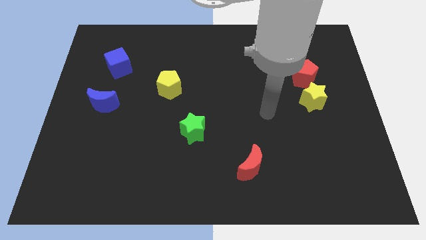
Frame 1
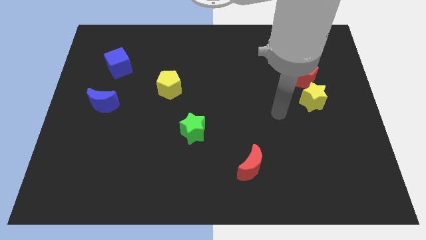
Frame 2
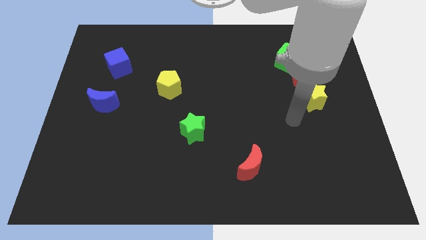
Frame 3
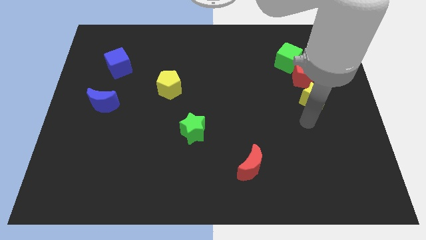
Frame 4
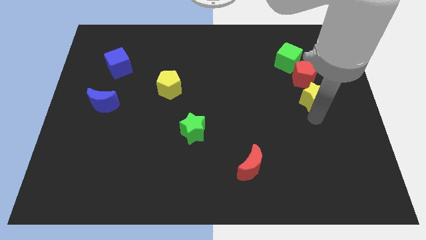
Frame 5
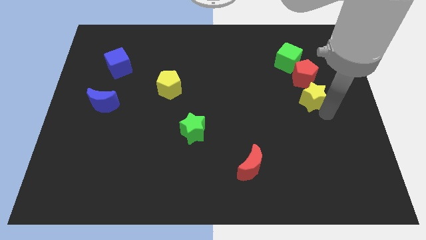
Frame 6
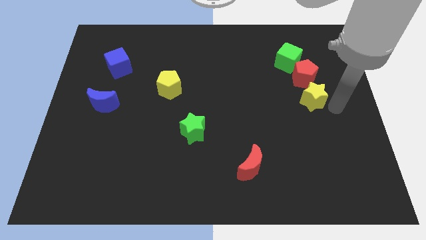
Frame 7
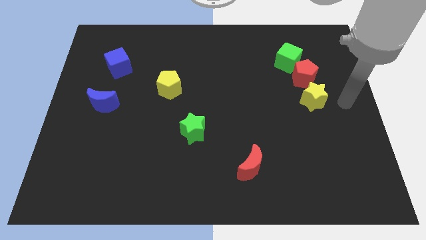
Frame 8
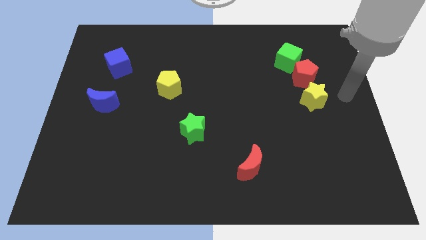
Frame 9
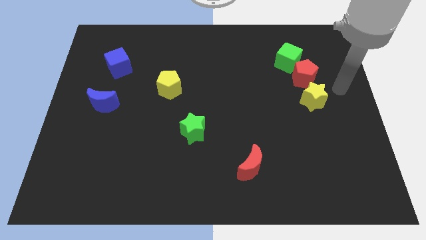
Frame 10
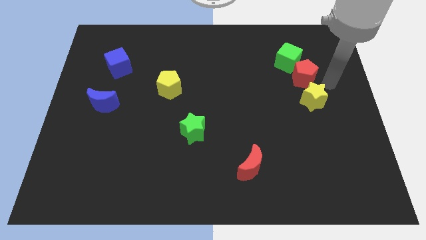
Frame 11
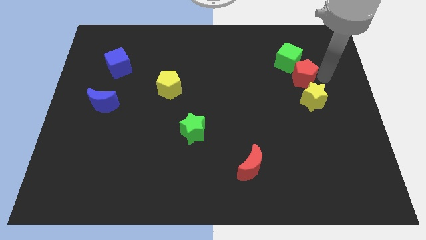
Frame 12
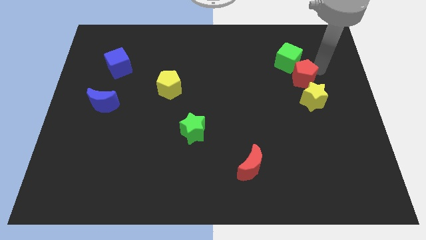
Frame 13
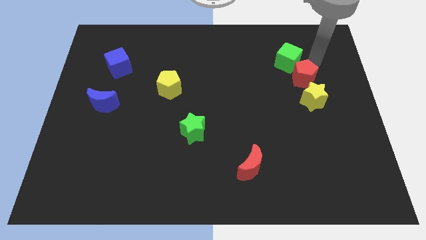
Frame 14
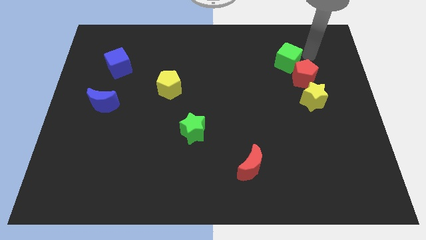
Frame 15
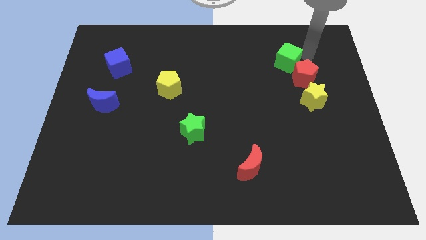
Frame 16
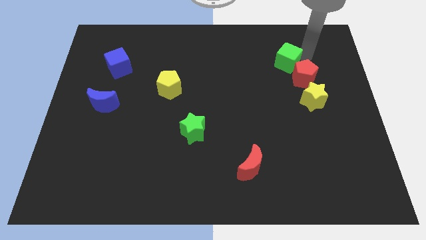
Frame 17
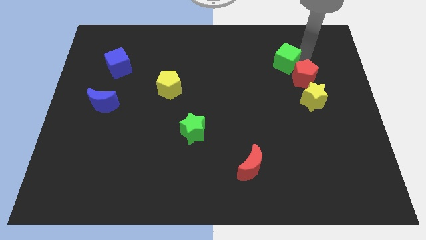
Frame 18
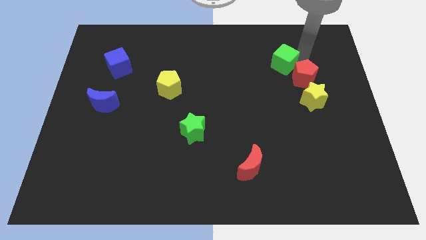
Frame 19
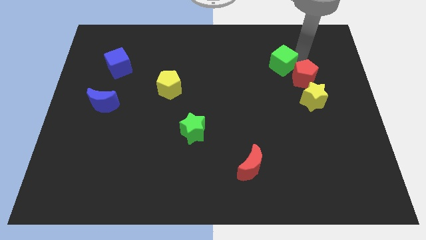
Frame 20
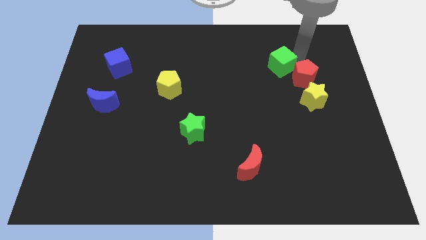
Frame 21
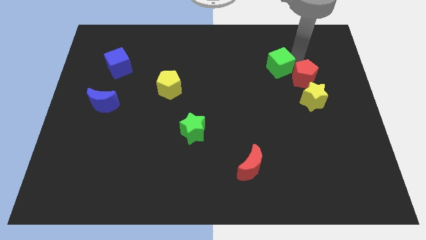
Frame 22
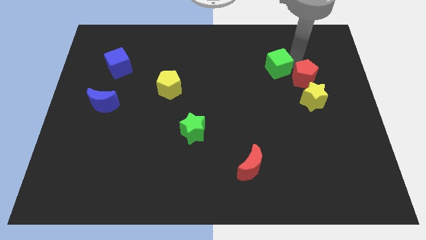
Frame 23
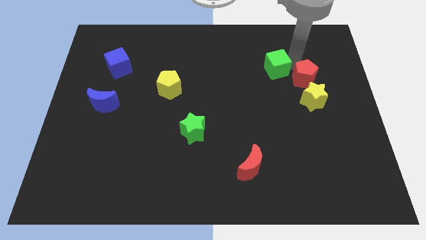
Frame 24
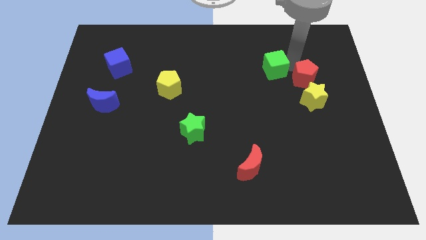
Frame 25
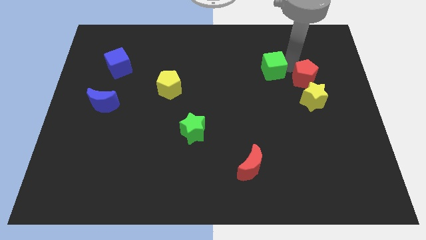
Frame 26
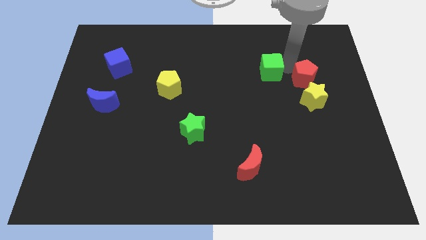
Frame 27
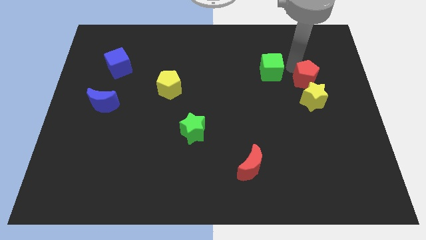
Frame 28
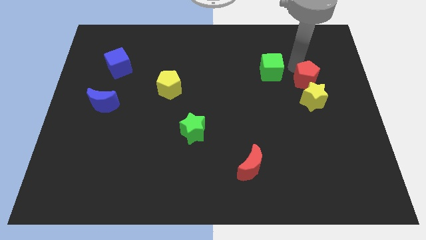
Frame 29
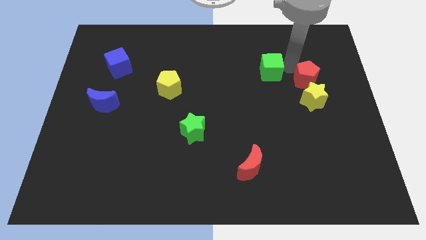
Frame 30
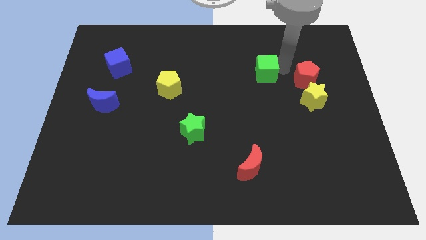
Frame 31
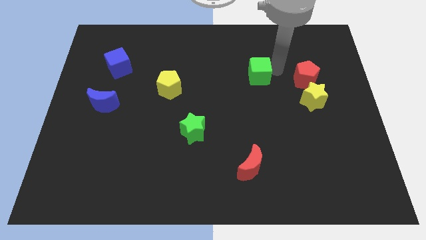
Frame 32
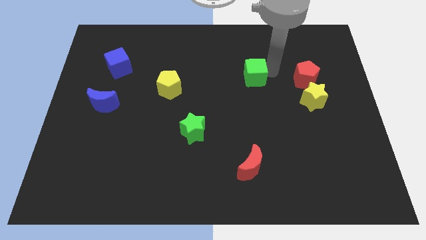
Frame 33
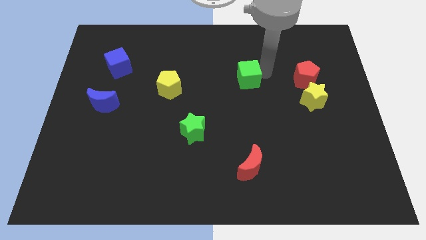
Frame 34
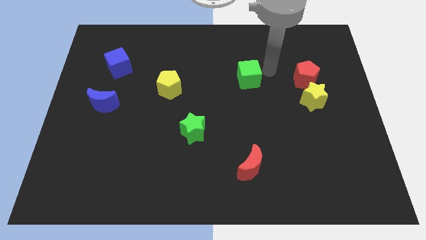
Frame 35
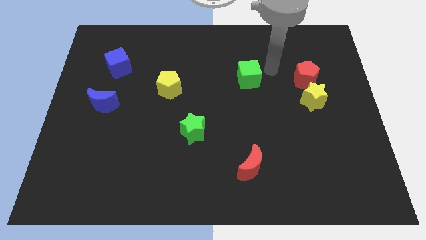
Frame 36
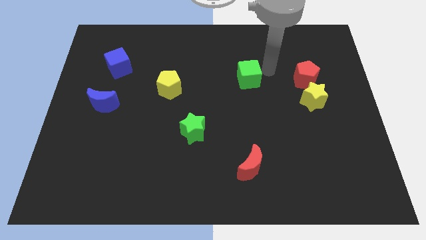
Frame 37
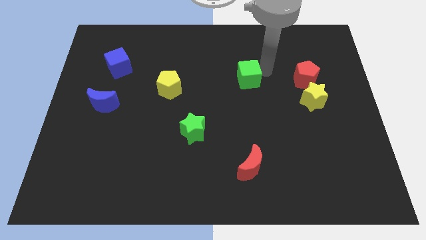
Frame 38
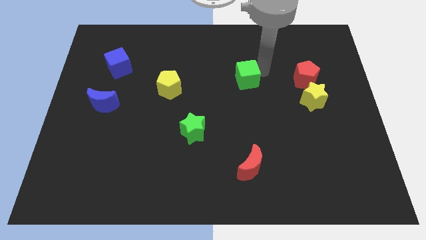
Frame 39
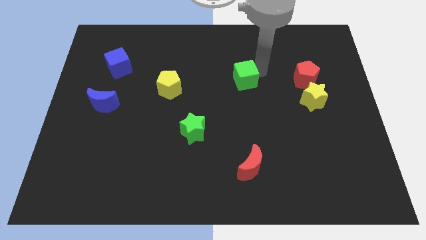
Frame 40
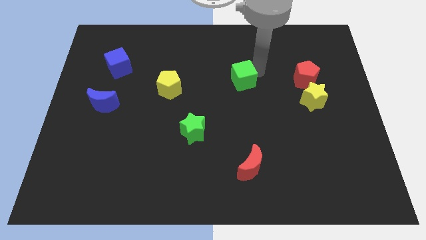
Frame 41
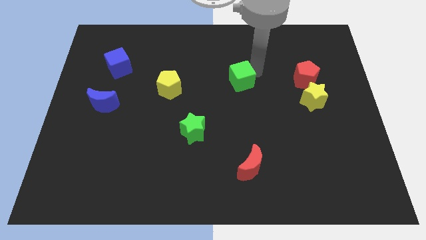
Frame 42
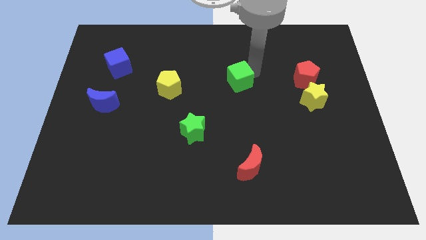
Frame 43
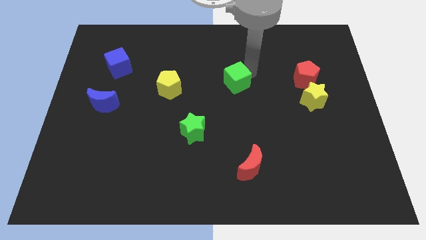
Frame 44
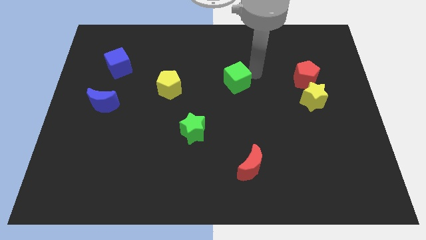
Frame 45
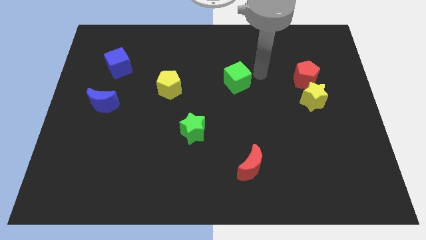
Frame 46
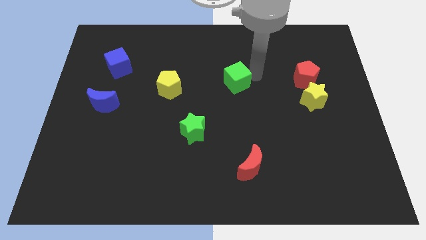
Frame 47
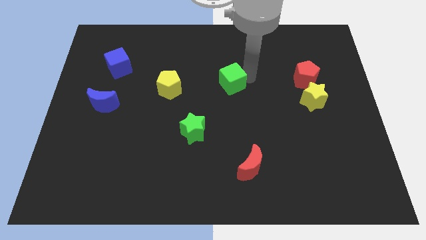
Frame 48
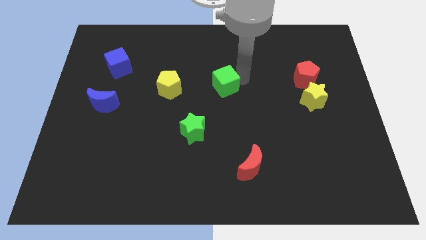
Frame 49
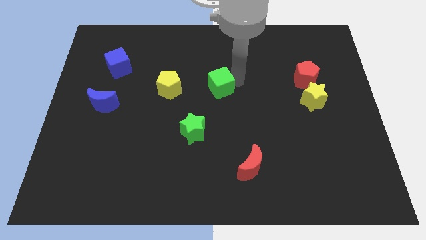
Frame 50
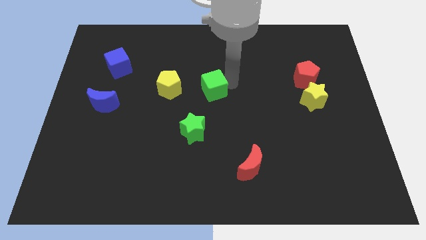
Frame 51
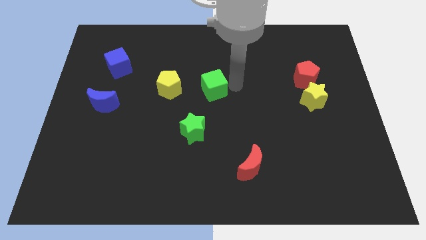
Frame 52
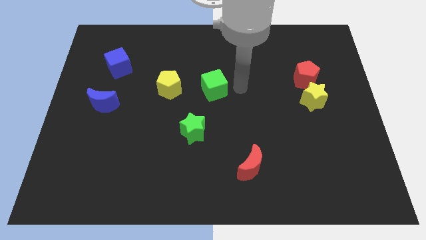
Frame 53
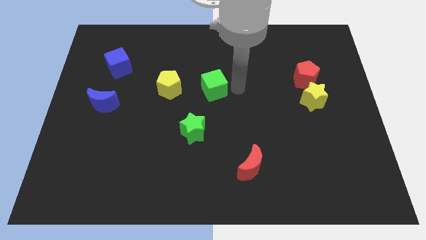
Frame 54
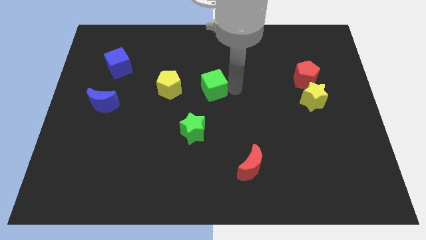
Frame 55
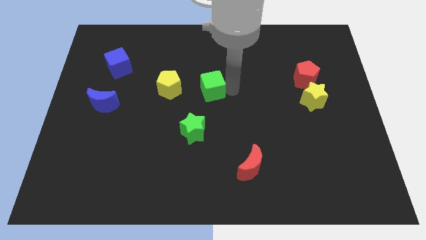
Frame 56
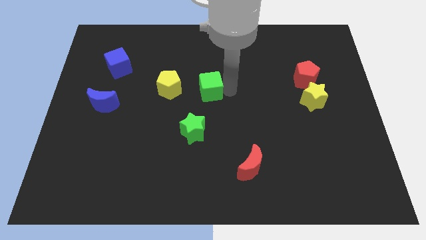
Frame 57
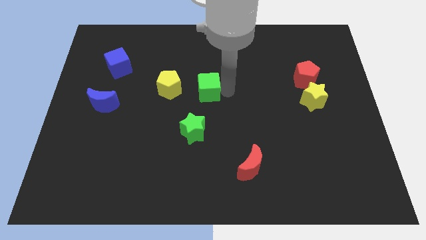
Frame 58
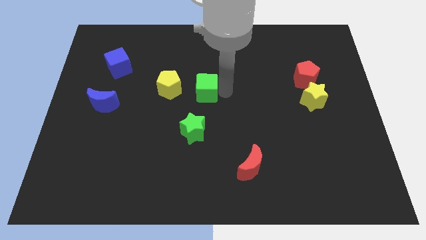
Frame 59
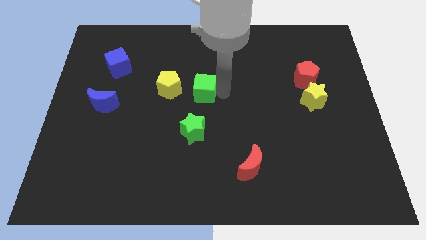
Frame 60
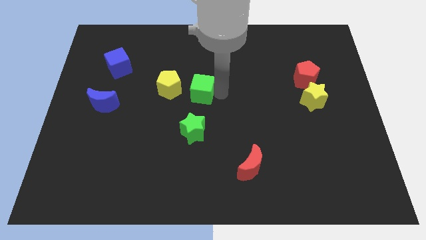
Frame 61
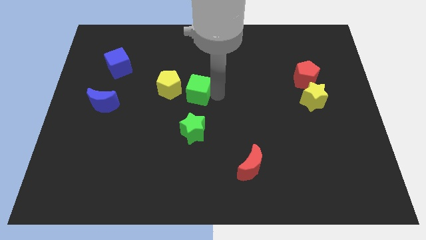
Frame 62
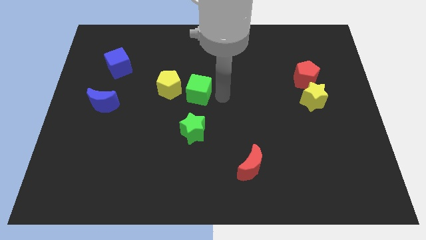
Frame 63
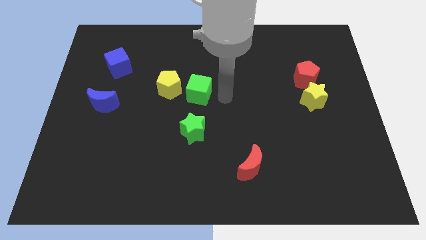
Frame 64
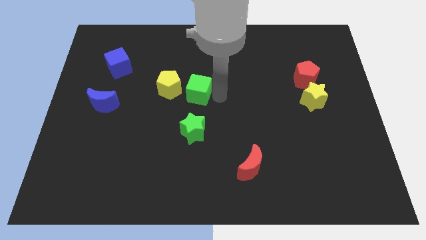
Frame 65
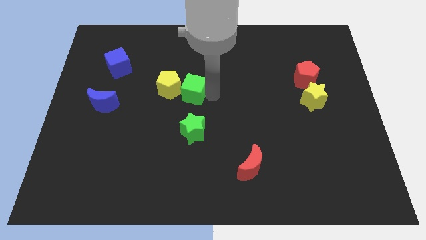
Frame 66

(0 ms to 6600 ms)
slide the green cube to the yellow pentagon
